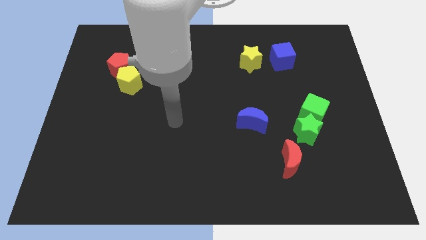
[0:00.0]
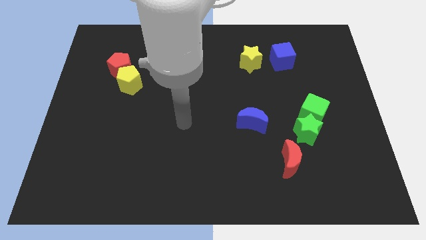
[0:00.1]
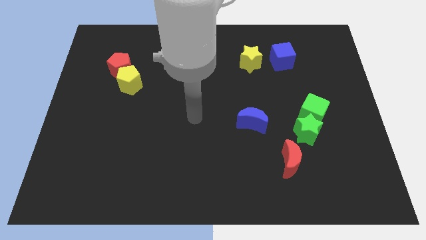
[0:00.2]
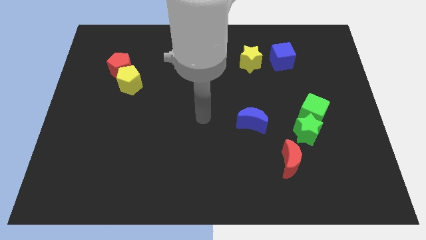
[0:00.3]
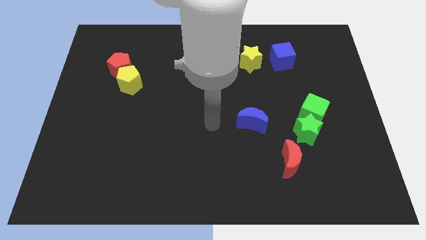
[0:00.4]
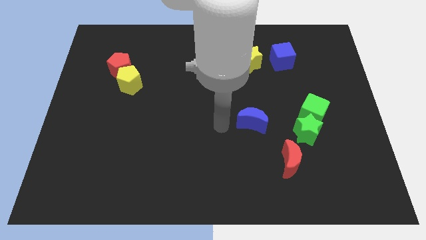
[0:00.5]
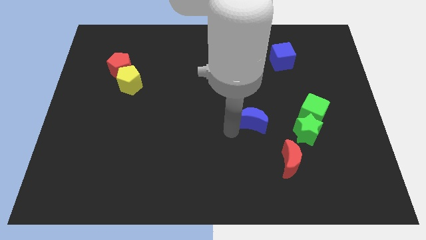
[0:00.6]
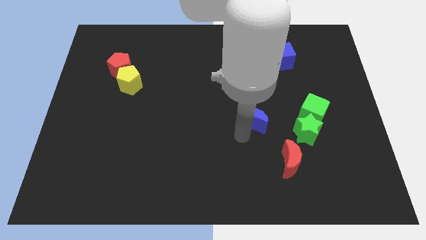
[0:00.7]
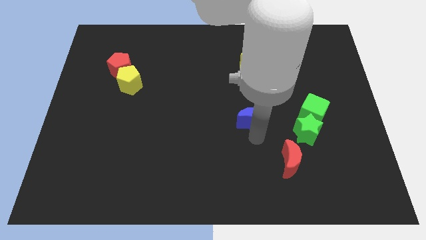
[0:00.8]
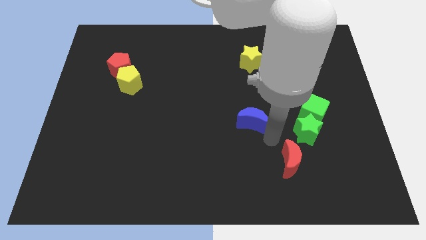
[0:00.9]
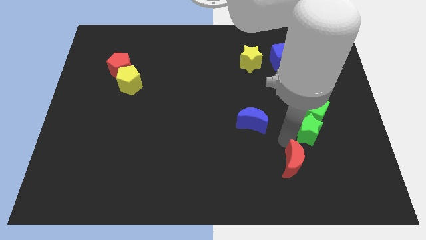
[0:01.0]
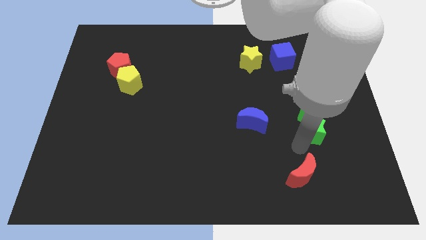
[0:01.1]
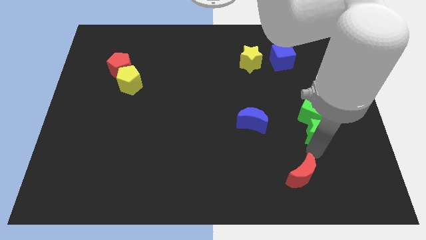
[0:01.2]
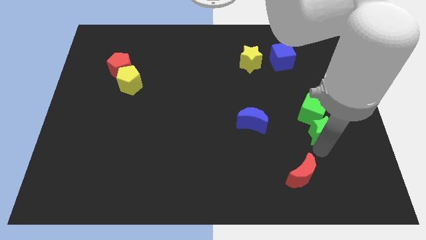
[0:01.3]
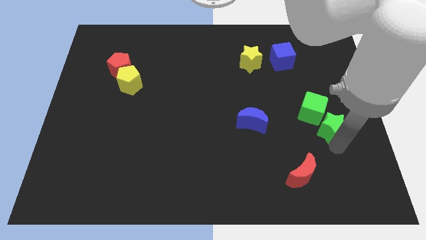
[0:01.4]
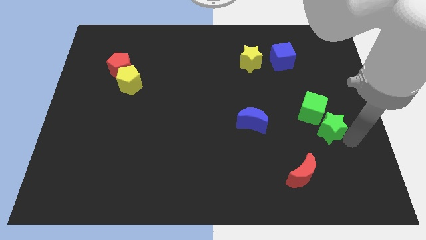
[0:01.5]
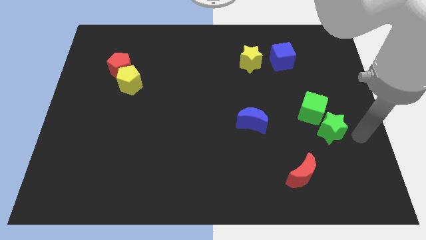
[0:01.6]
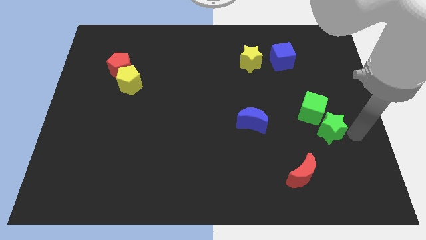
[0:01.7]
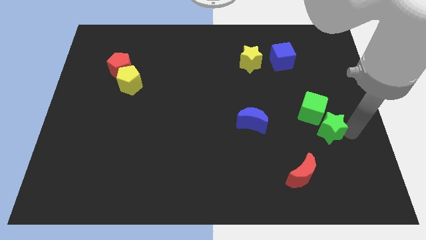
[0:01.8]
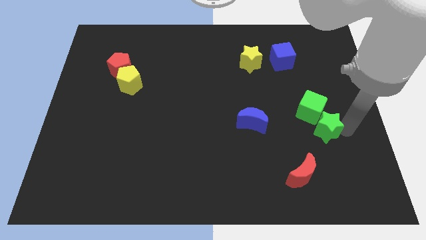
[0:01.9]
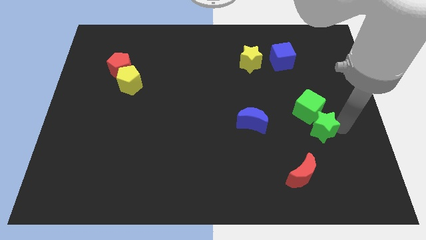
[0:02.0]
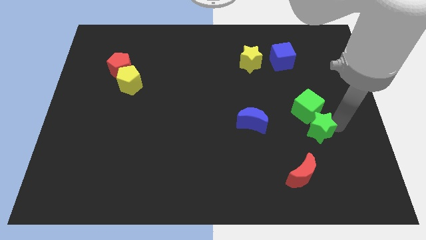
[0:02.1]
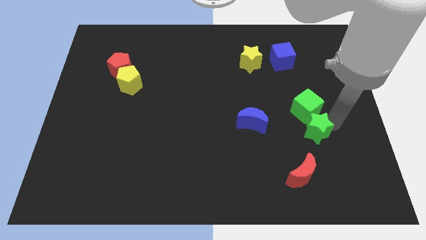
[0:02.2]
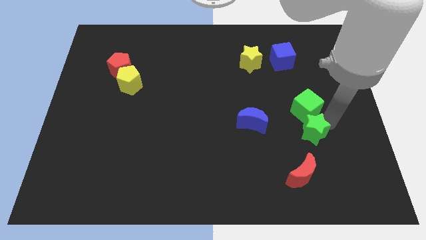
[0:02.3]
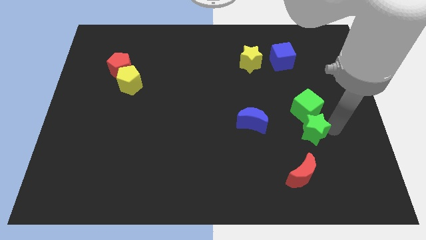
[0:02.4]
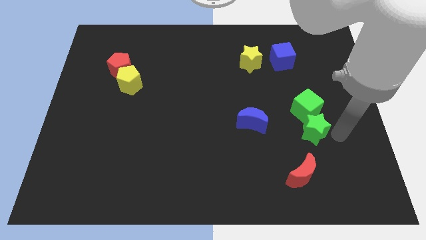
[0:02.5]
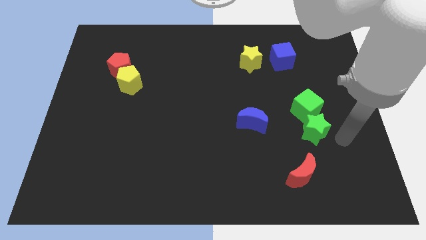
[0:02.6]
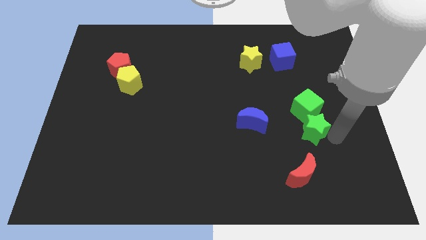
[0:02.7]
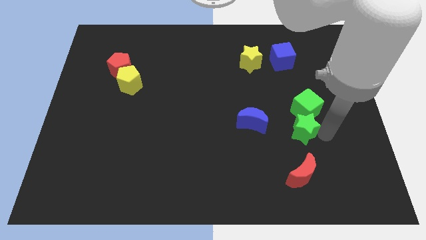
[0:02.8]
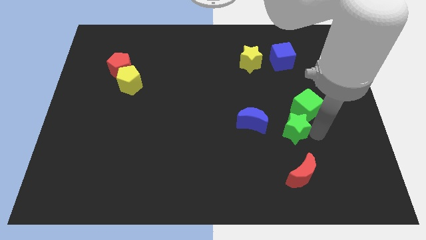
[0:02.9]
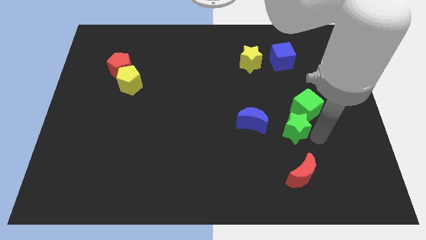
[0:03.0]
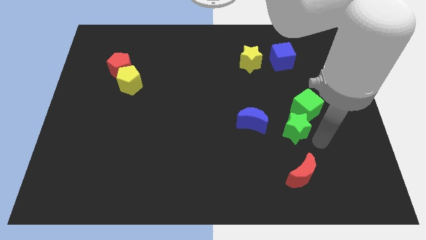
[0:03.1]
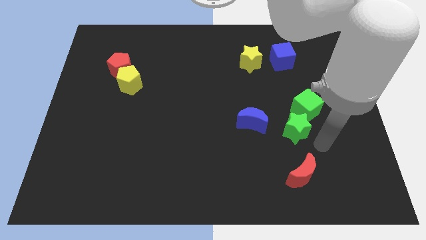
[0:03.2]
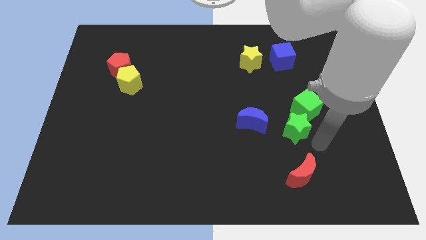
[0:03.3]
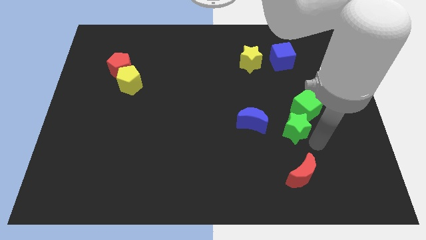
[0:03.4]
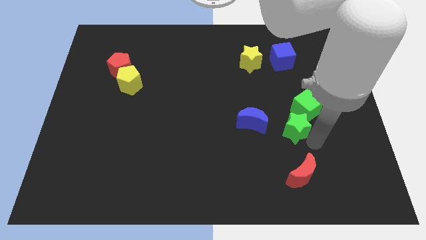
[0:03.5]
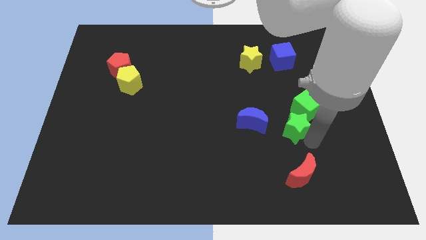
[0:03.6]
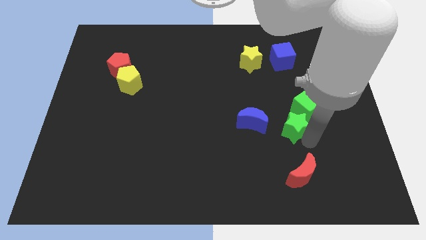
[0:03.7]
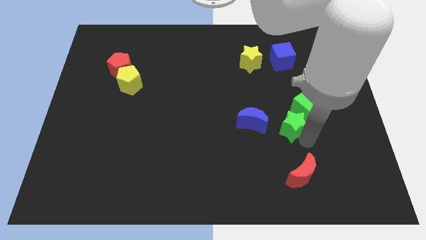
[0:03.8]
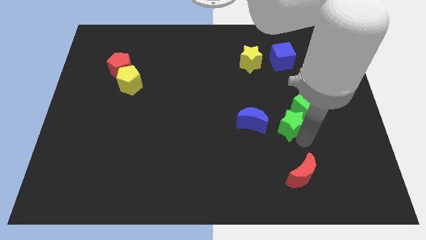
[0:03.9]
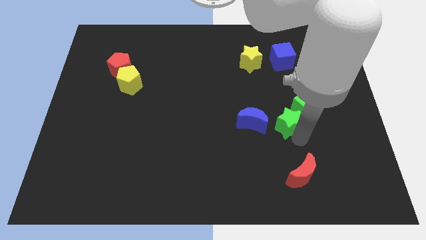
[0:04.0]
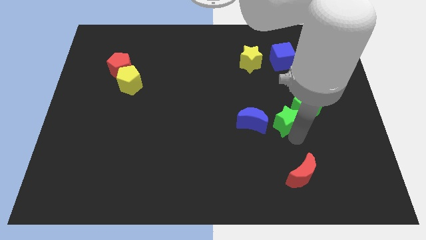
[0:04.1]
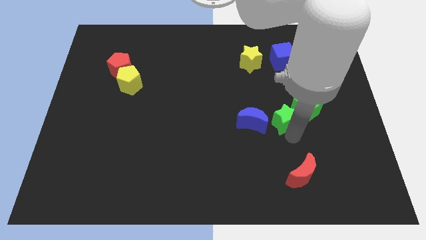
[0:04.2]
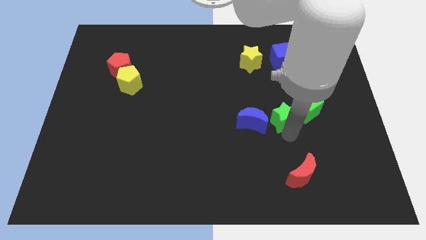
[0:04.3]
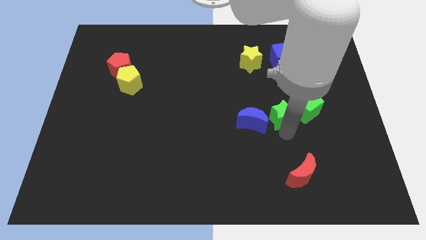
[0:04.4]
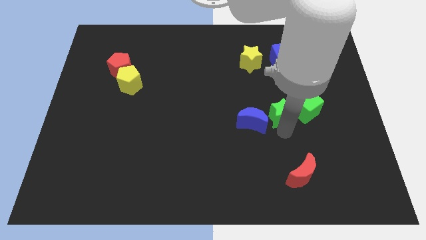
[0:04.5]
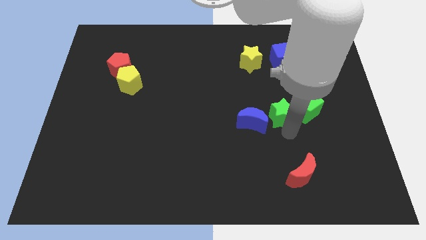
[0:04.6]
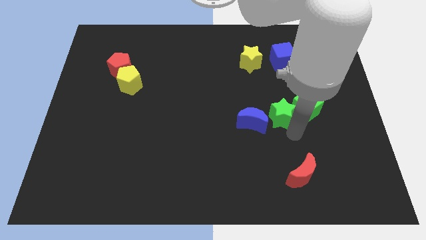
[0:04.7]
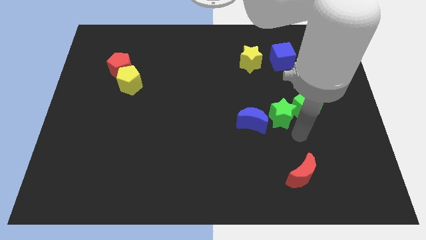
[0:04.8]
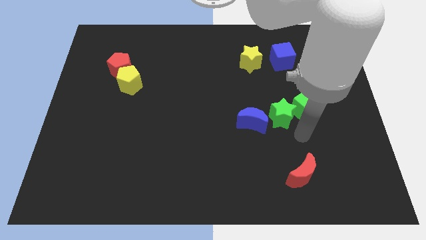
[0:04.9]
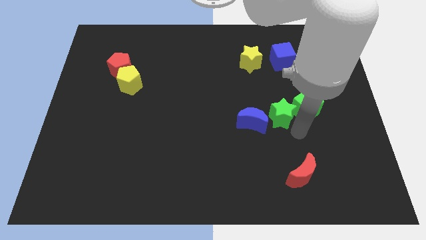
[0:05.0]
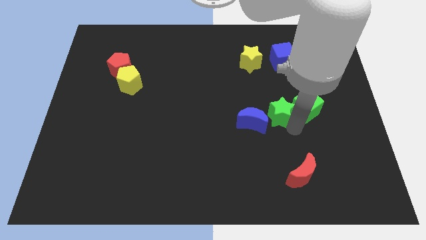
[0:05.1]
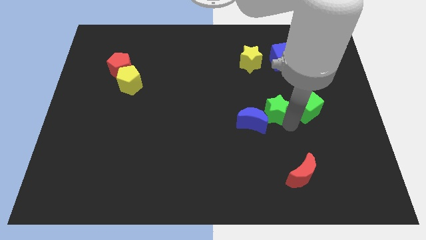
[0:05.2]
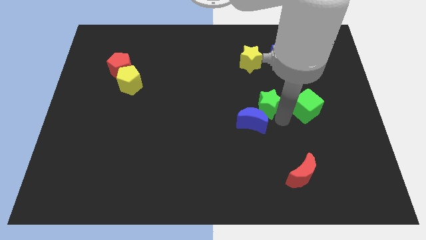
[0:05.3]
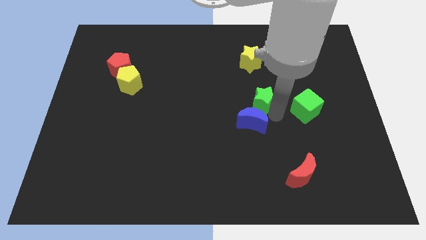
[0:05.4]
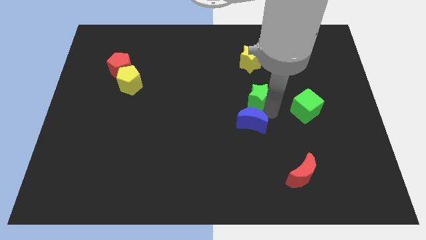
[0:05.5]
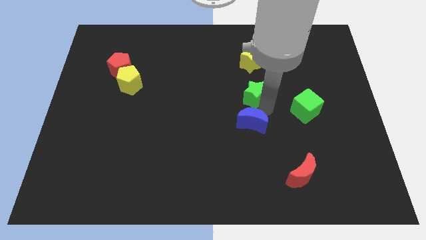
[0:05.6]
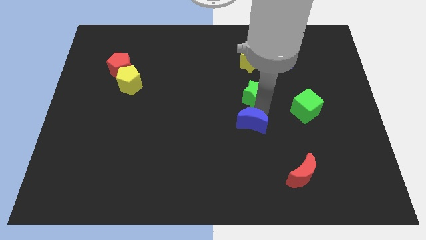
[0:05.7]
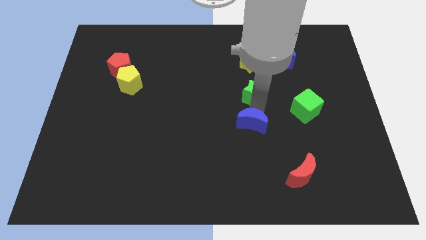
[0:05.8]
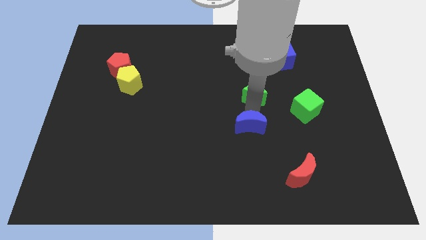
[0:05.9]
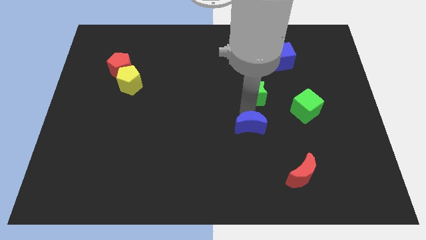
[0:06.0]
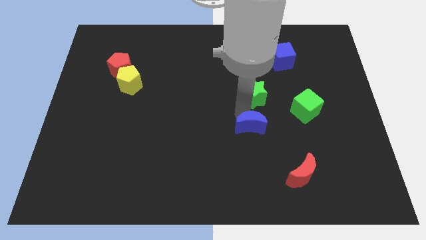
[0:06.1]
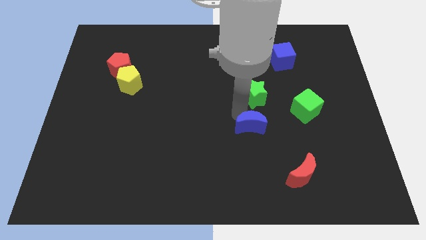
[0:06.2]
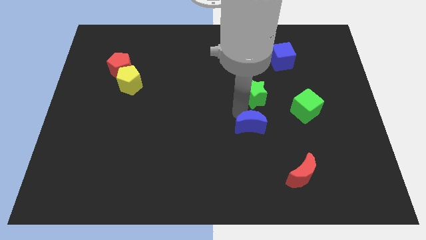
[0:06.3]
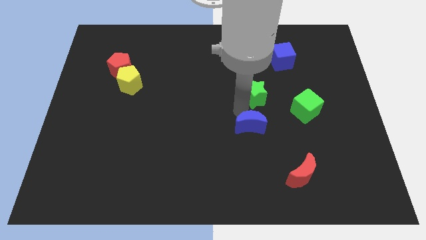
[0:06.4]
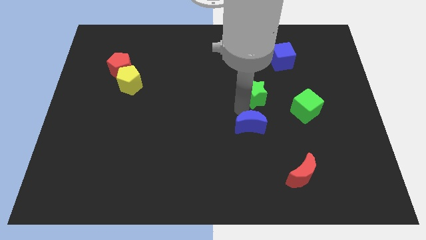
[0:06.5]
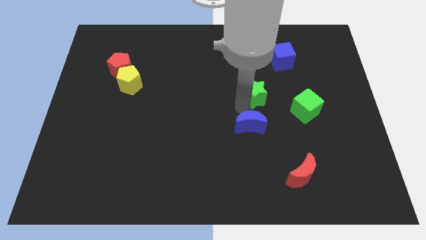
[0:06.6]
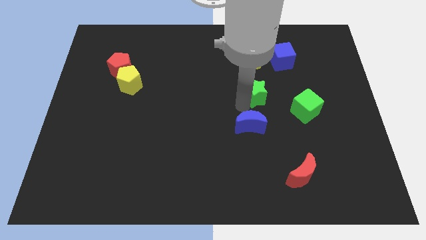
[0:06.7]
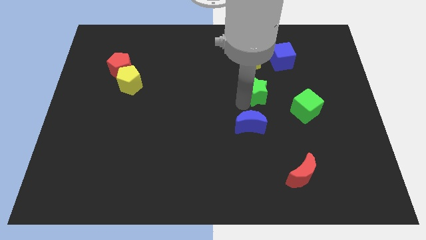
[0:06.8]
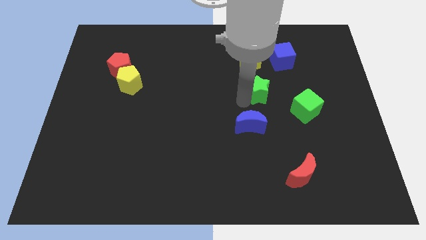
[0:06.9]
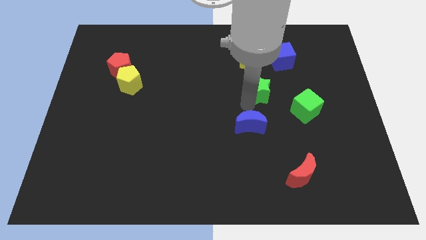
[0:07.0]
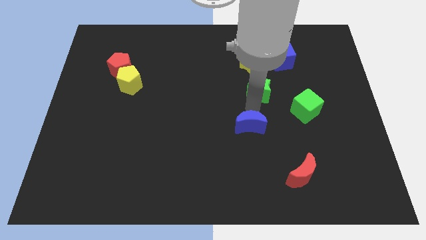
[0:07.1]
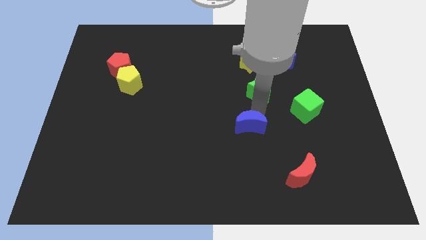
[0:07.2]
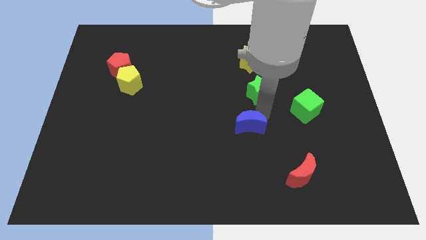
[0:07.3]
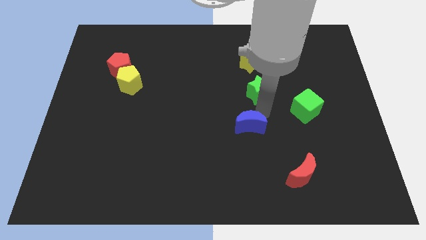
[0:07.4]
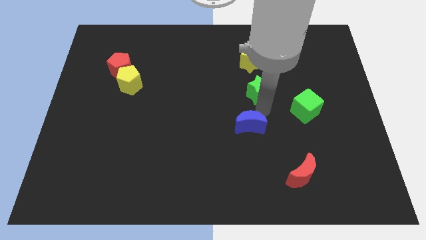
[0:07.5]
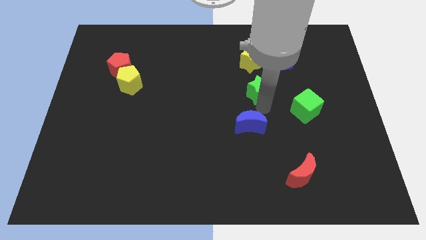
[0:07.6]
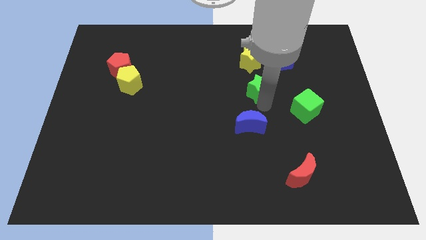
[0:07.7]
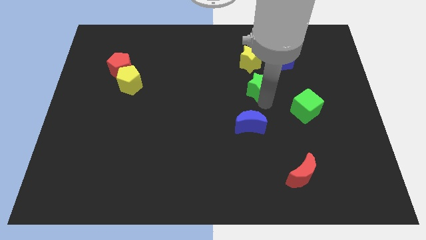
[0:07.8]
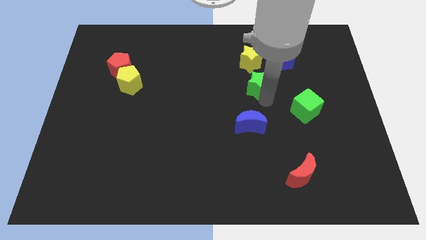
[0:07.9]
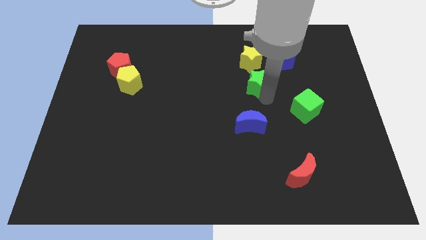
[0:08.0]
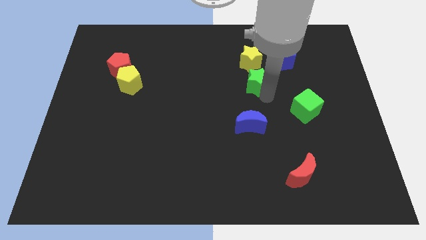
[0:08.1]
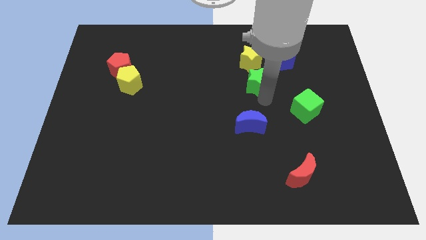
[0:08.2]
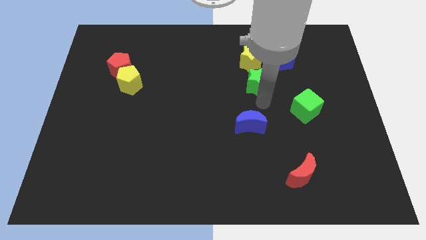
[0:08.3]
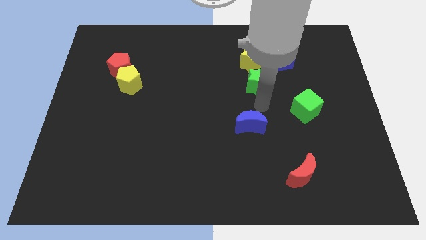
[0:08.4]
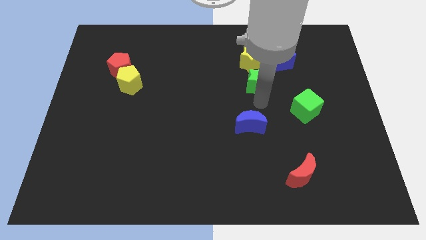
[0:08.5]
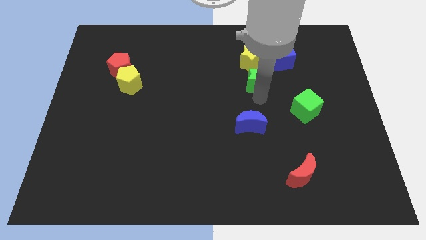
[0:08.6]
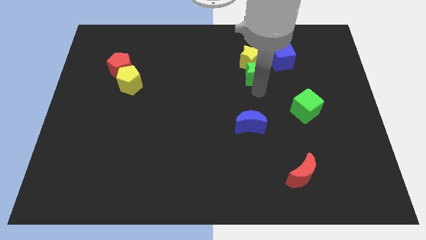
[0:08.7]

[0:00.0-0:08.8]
slide the green star towards the yellow star
